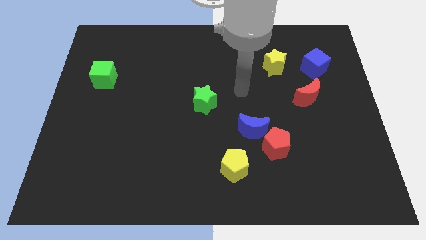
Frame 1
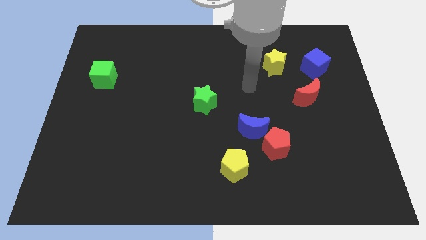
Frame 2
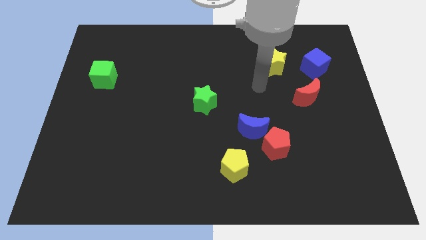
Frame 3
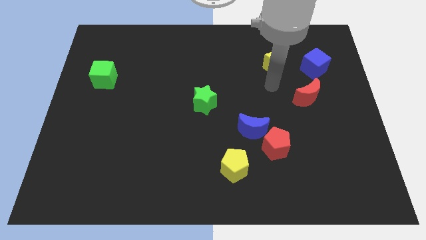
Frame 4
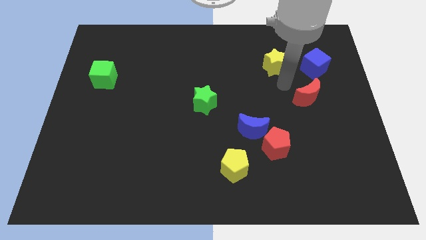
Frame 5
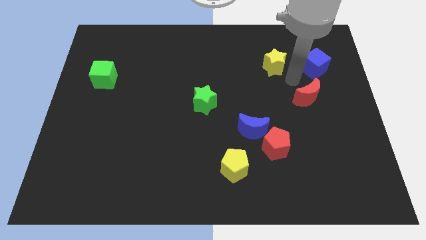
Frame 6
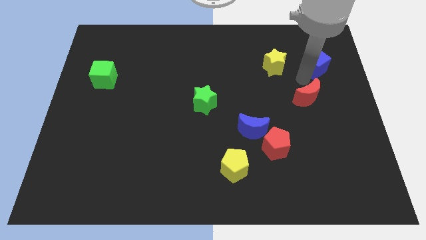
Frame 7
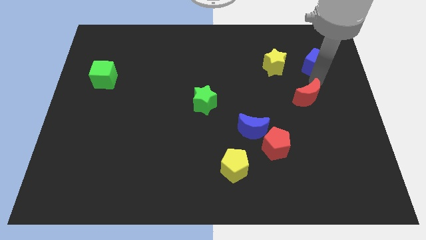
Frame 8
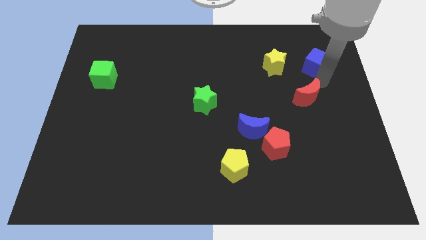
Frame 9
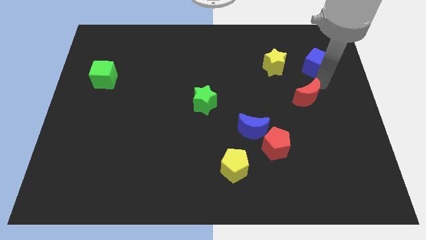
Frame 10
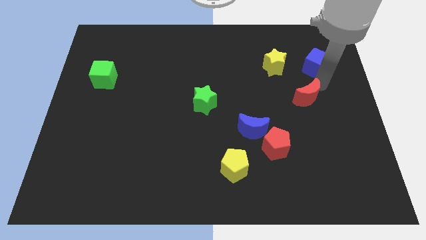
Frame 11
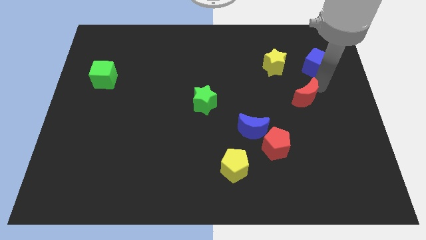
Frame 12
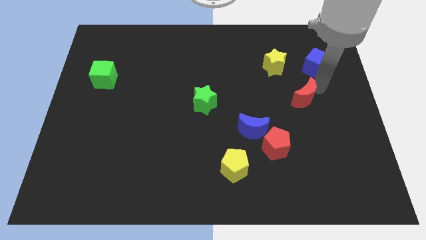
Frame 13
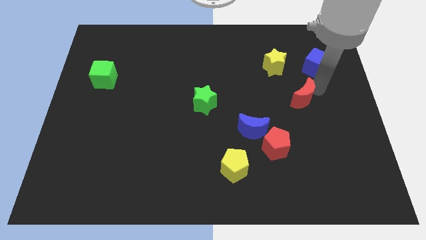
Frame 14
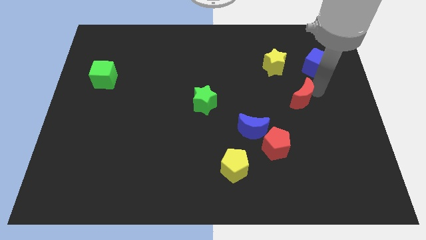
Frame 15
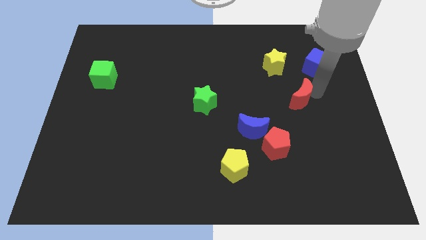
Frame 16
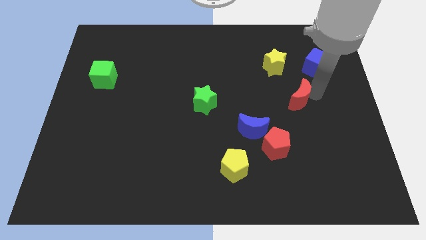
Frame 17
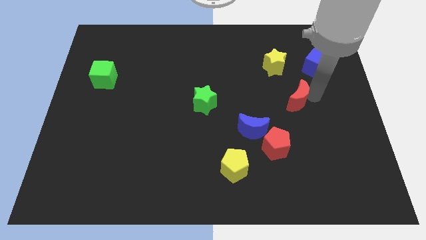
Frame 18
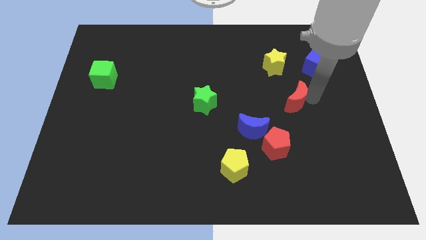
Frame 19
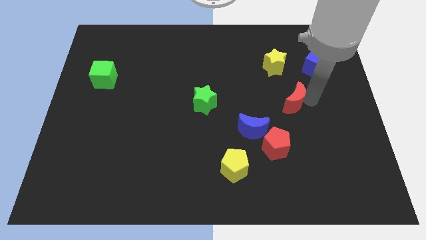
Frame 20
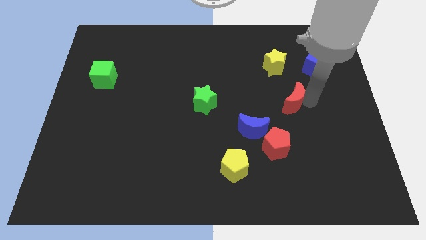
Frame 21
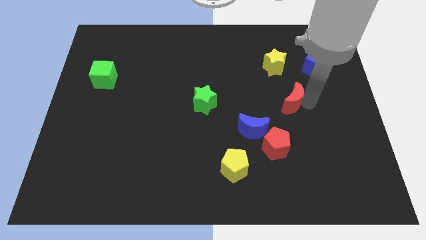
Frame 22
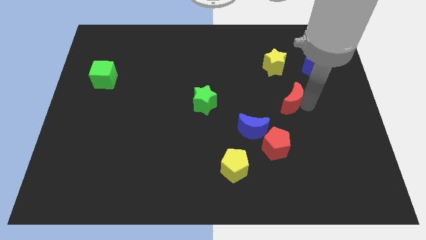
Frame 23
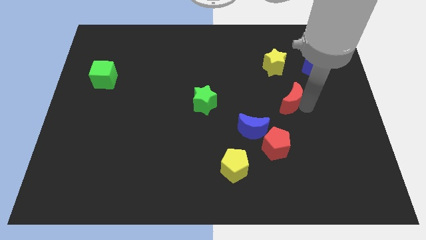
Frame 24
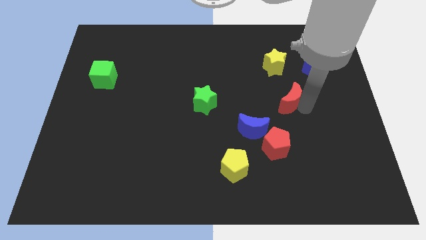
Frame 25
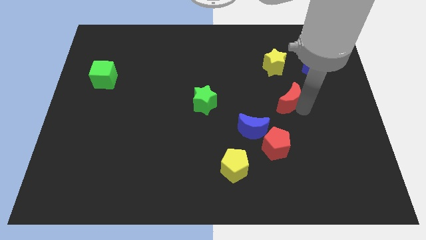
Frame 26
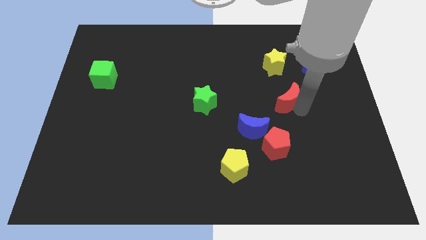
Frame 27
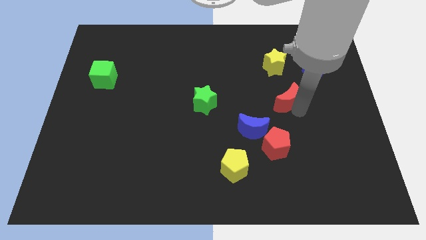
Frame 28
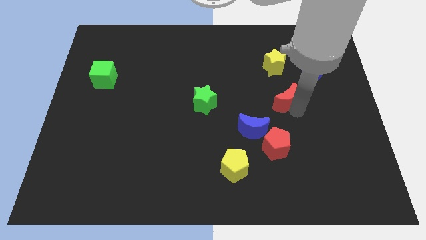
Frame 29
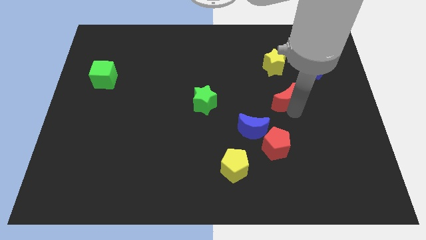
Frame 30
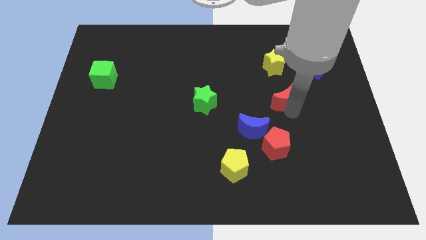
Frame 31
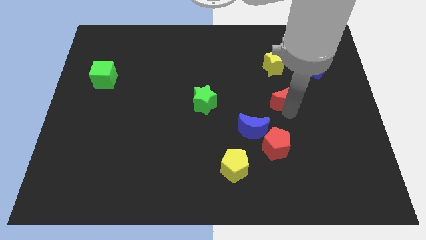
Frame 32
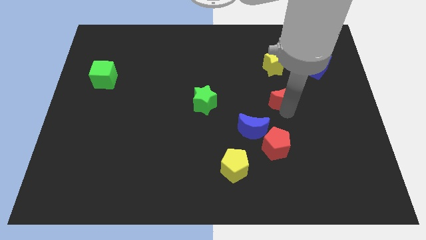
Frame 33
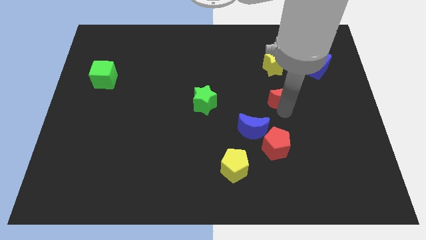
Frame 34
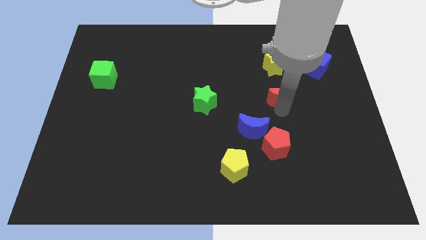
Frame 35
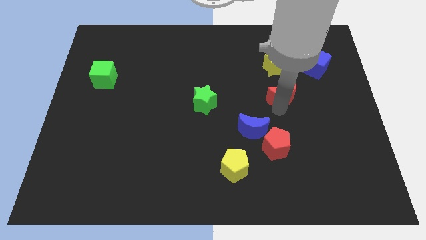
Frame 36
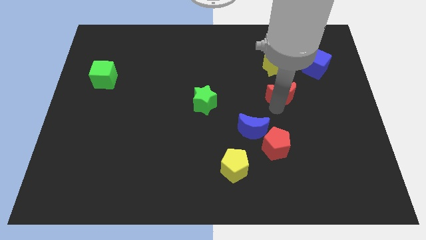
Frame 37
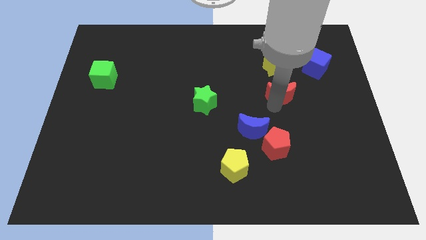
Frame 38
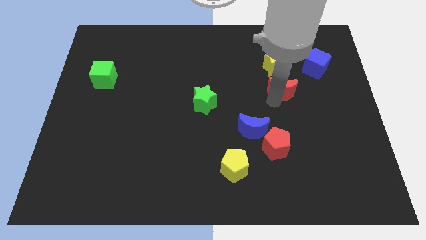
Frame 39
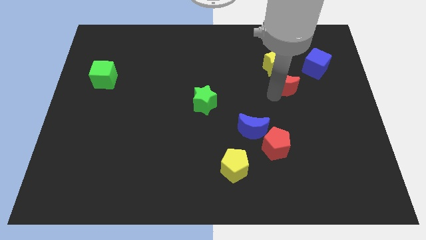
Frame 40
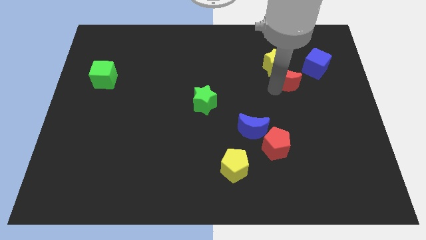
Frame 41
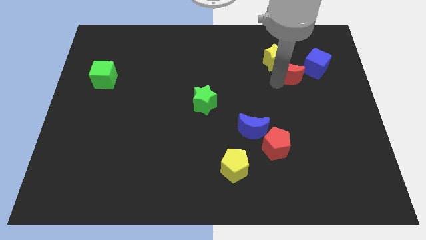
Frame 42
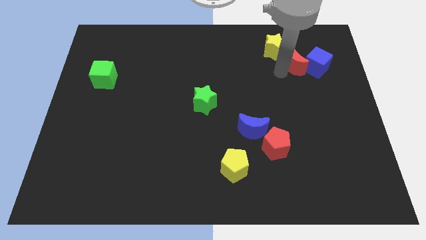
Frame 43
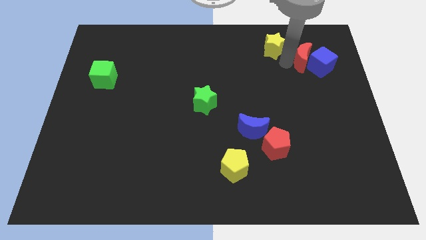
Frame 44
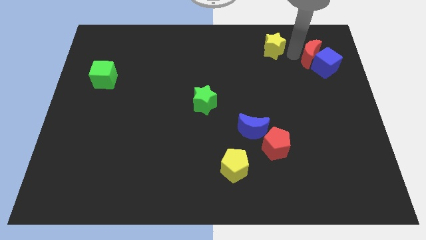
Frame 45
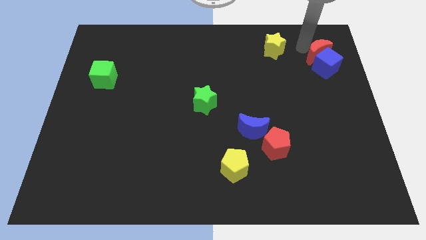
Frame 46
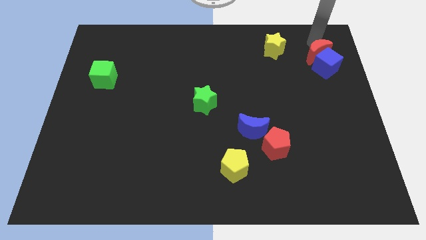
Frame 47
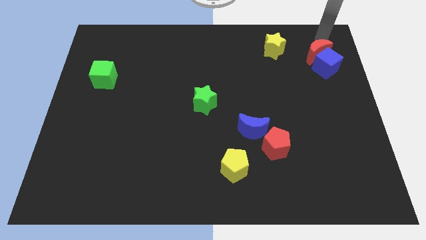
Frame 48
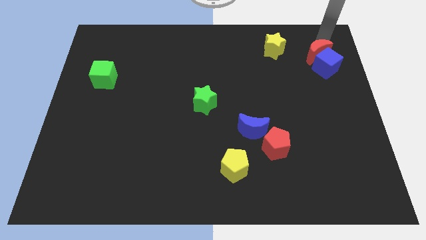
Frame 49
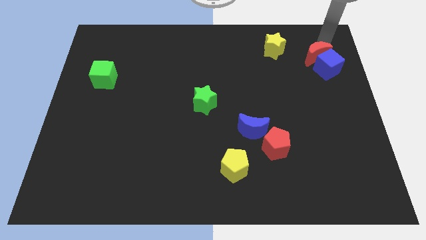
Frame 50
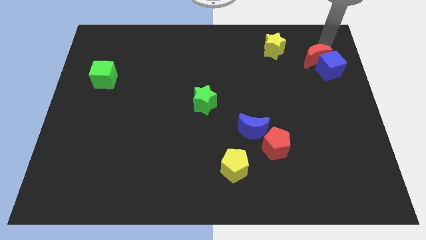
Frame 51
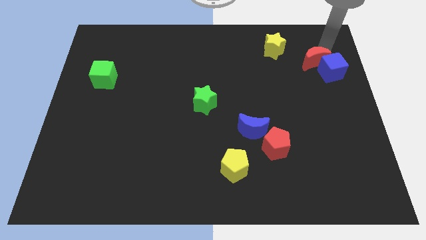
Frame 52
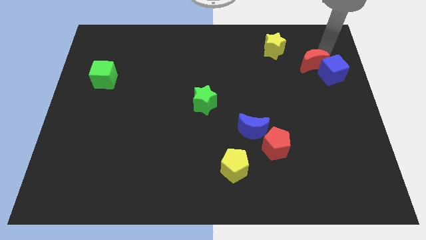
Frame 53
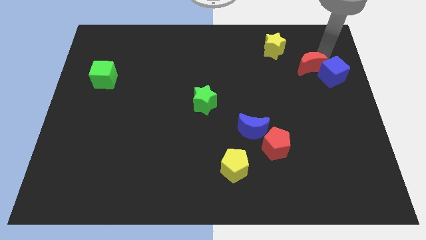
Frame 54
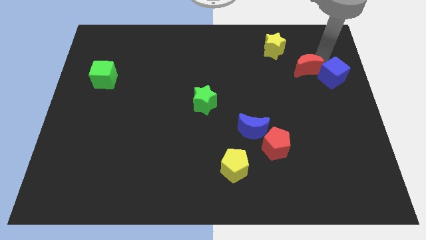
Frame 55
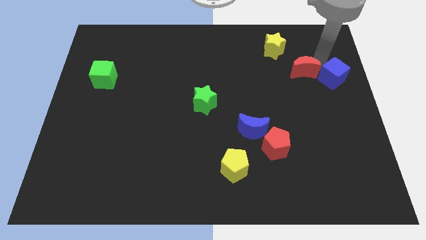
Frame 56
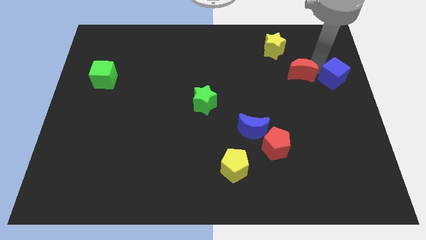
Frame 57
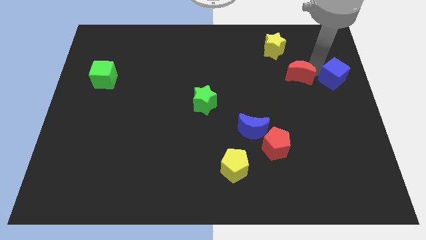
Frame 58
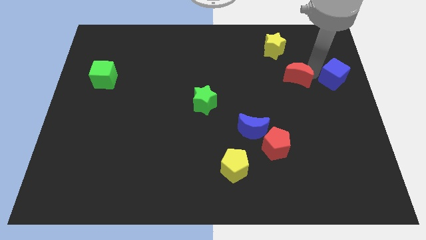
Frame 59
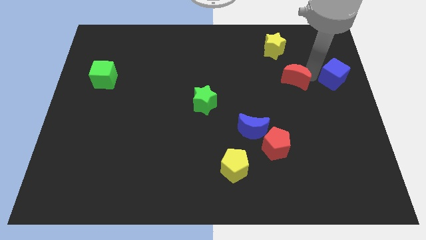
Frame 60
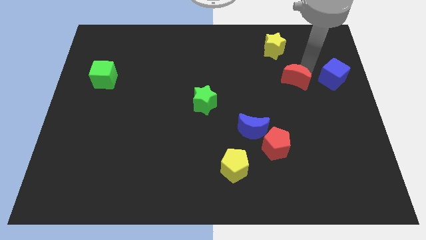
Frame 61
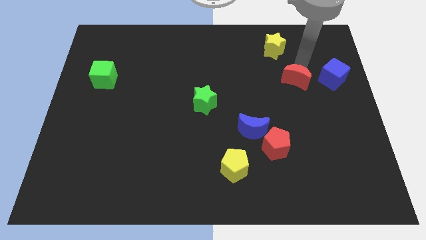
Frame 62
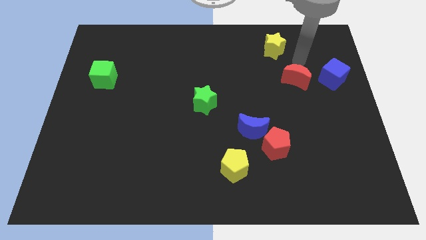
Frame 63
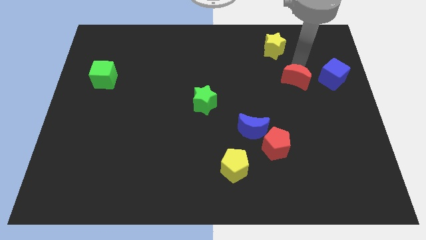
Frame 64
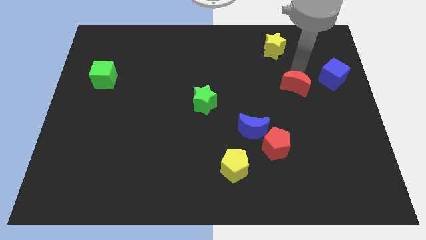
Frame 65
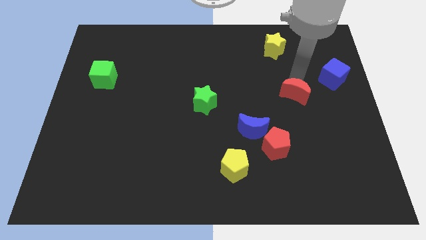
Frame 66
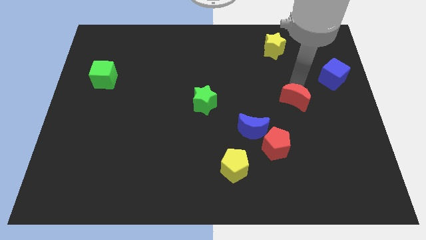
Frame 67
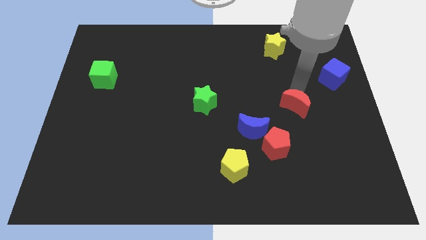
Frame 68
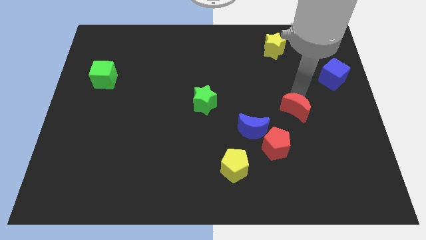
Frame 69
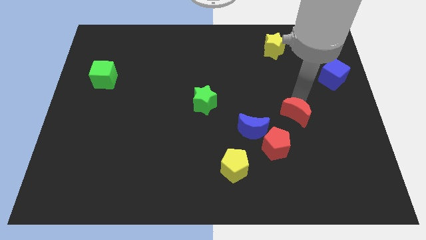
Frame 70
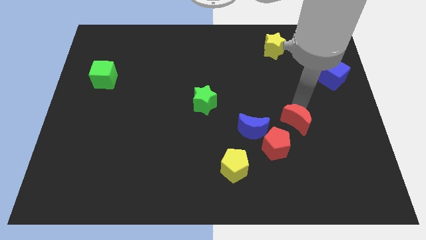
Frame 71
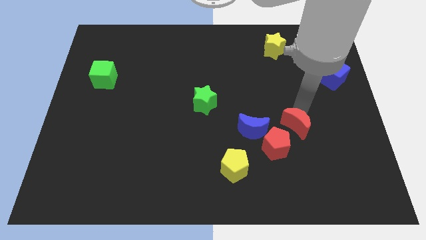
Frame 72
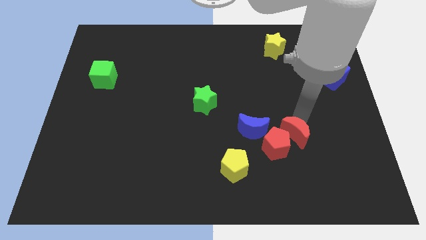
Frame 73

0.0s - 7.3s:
put the red moon close to the red pentagon

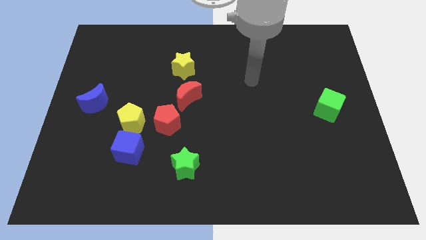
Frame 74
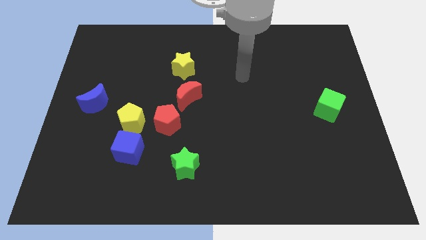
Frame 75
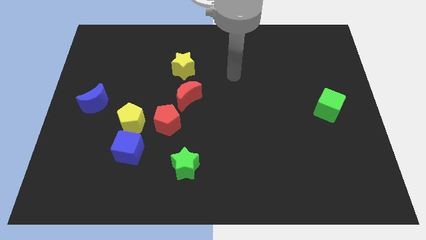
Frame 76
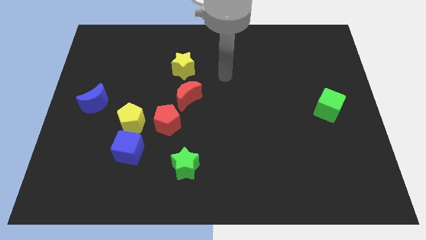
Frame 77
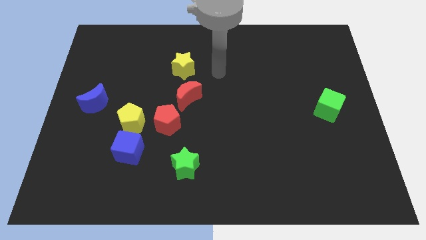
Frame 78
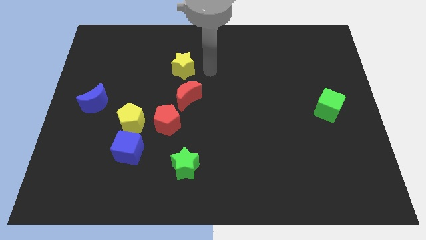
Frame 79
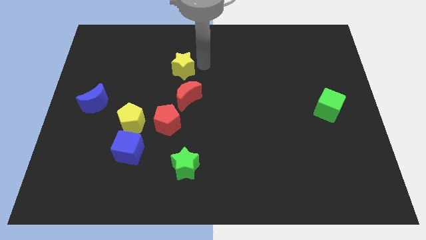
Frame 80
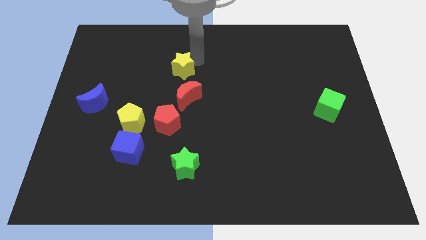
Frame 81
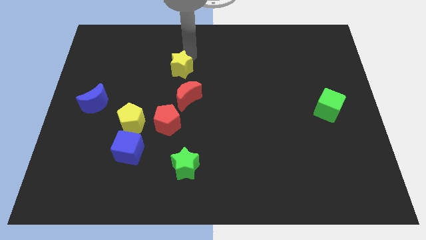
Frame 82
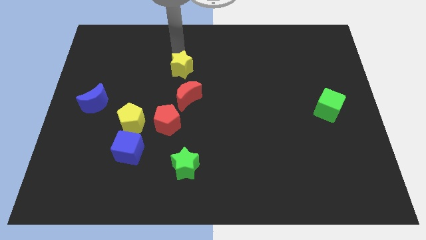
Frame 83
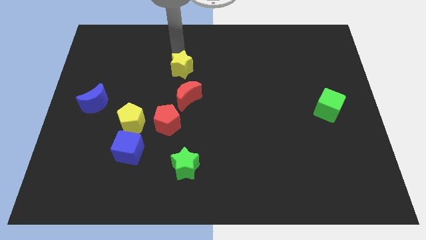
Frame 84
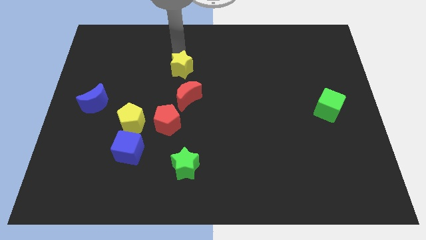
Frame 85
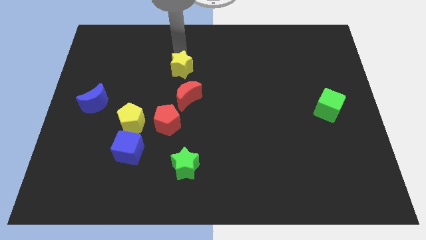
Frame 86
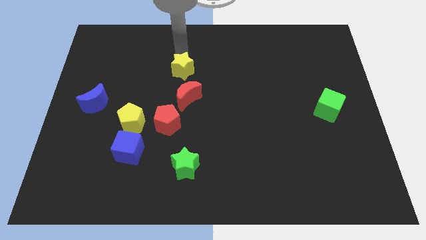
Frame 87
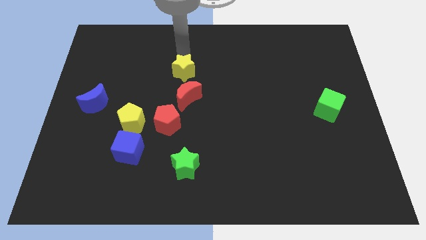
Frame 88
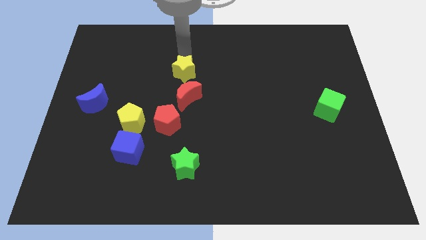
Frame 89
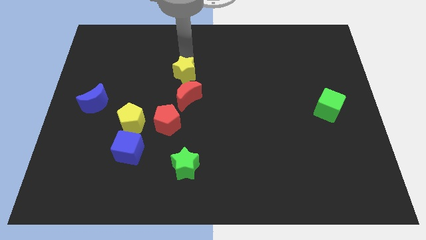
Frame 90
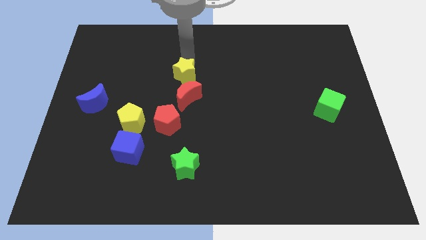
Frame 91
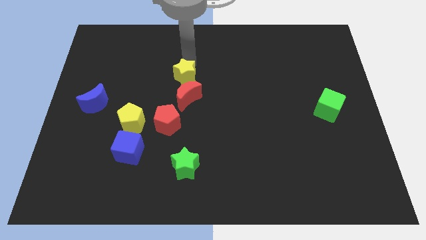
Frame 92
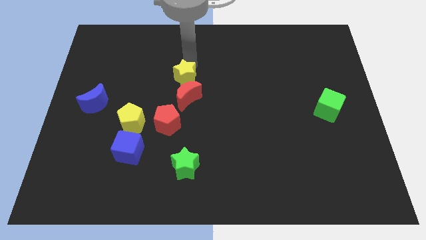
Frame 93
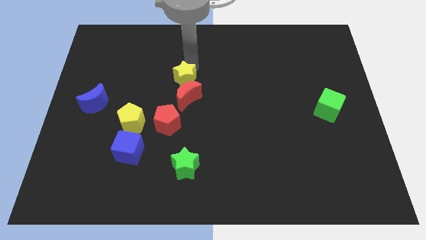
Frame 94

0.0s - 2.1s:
slide the yellow star towards the red moon
